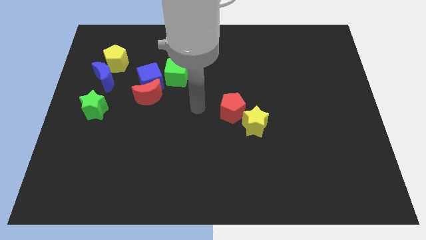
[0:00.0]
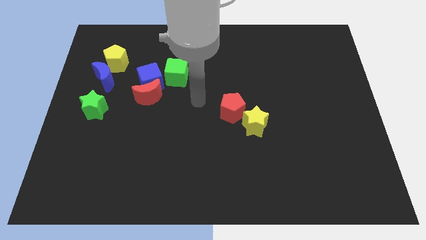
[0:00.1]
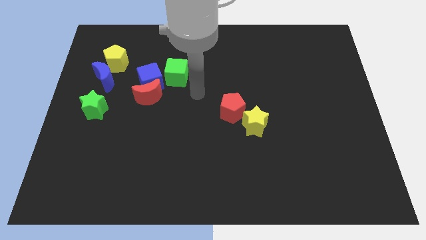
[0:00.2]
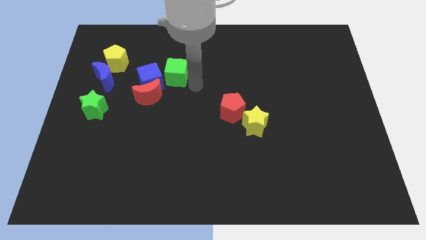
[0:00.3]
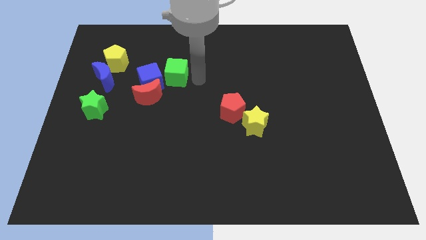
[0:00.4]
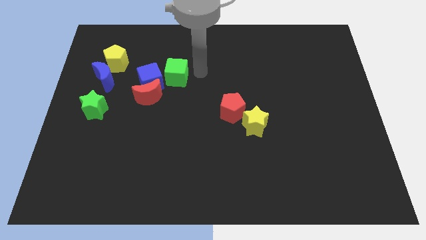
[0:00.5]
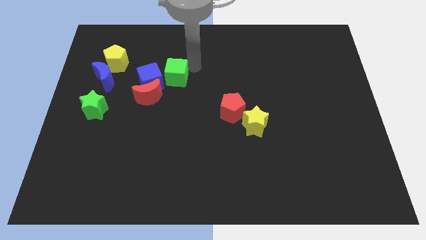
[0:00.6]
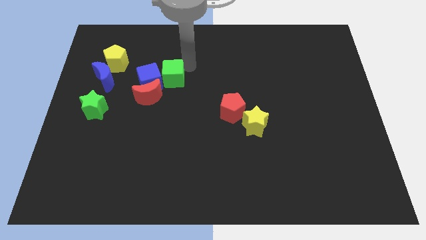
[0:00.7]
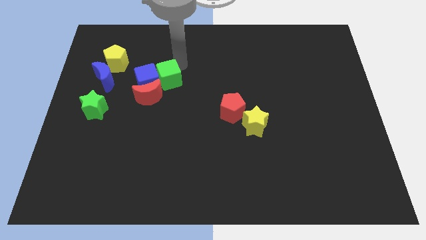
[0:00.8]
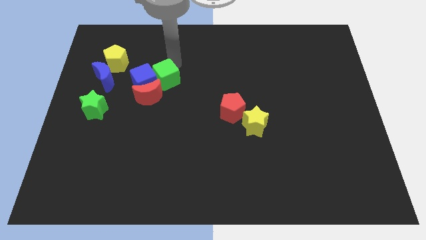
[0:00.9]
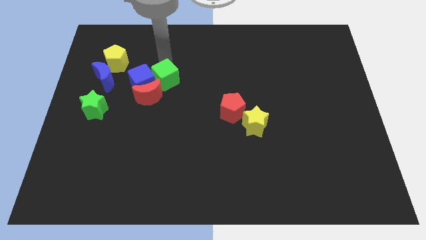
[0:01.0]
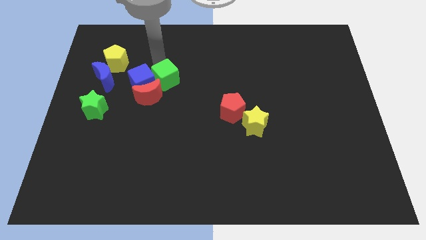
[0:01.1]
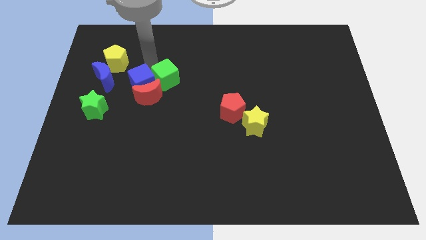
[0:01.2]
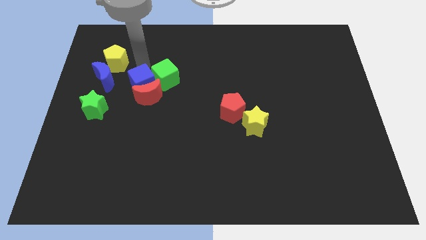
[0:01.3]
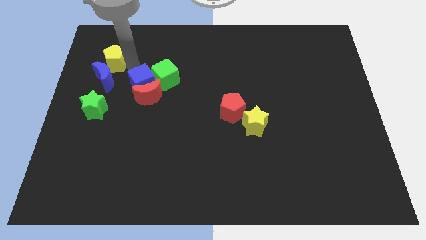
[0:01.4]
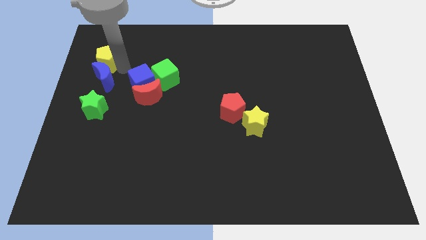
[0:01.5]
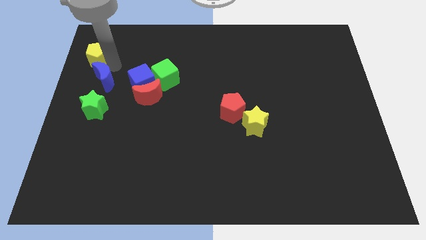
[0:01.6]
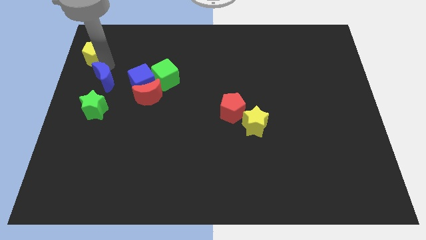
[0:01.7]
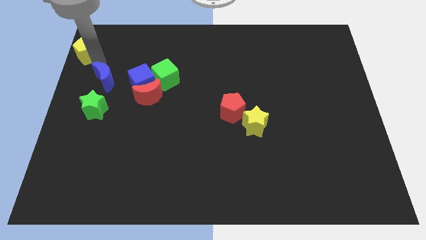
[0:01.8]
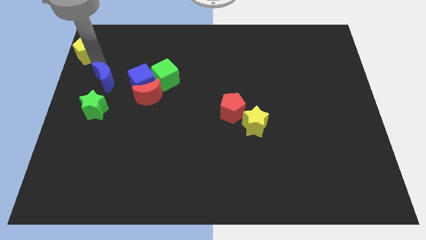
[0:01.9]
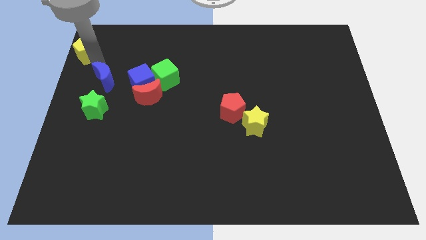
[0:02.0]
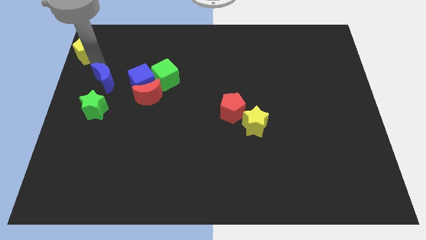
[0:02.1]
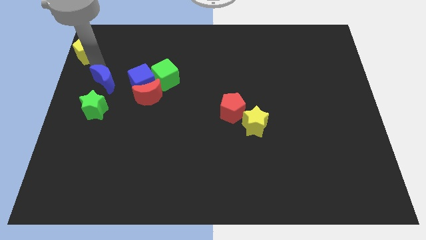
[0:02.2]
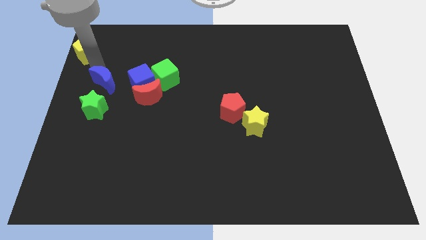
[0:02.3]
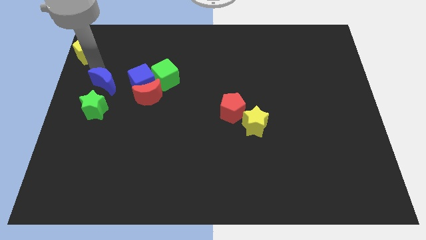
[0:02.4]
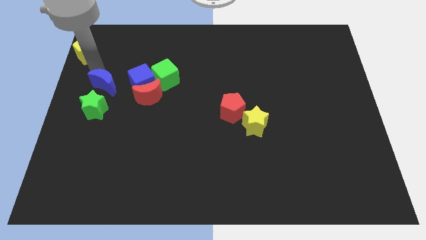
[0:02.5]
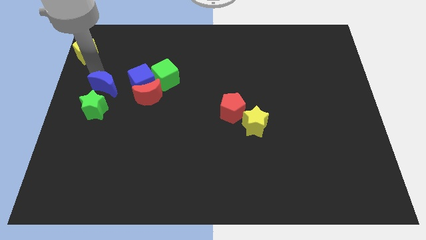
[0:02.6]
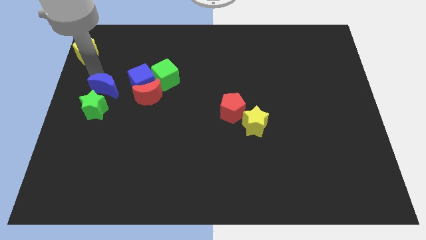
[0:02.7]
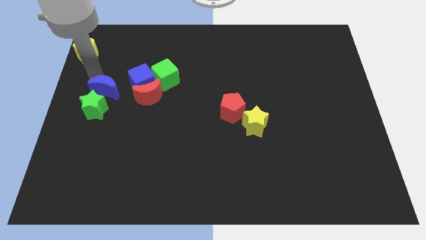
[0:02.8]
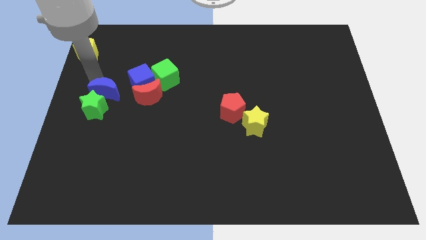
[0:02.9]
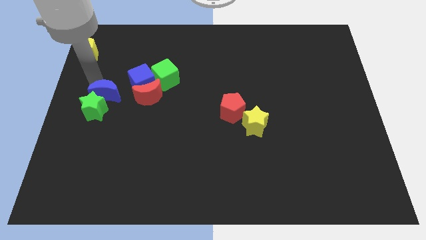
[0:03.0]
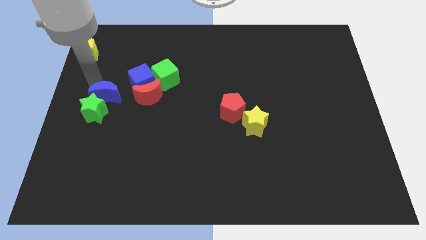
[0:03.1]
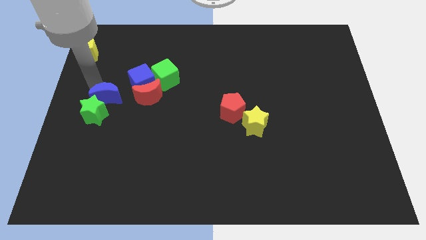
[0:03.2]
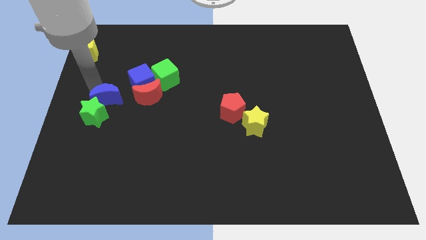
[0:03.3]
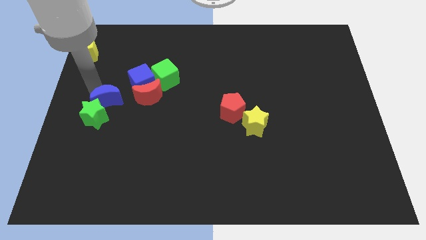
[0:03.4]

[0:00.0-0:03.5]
push the blue moon somewhat down

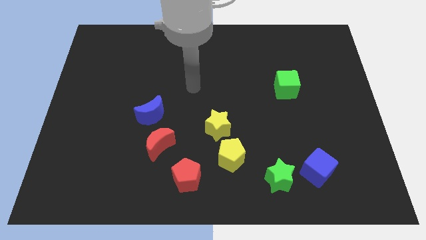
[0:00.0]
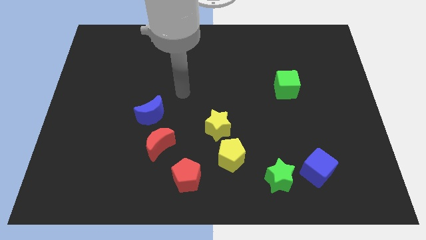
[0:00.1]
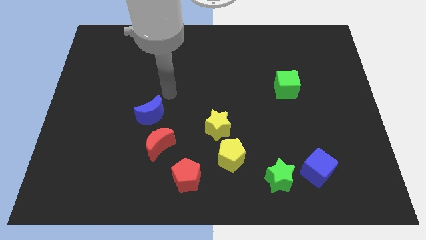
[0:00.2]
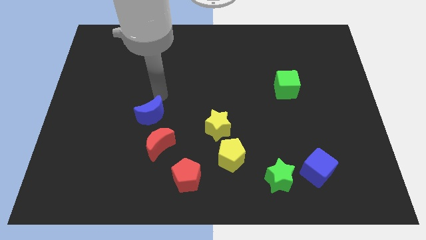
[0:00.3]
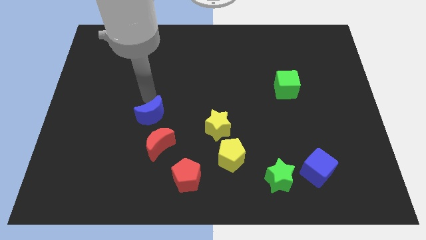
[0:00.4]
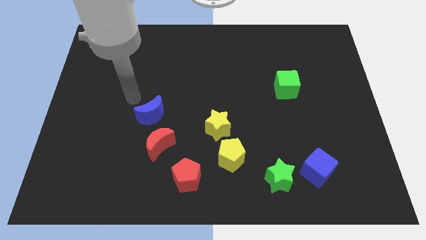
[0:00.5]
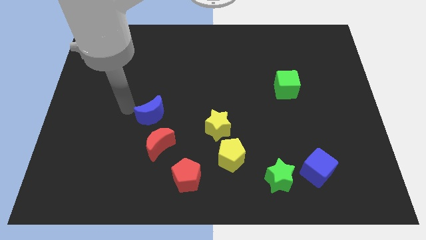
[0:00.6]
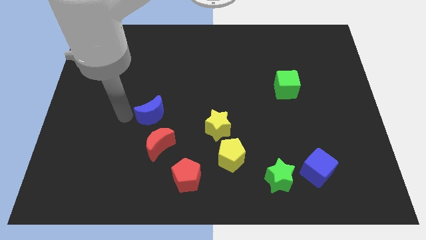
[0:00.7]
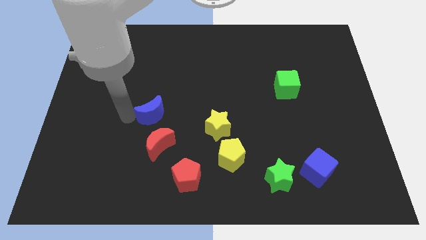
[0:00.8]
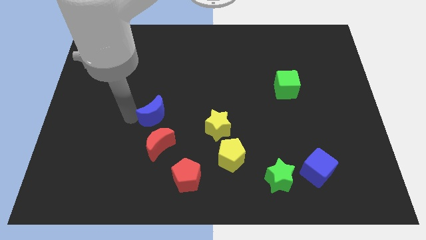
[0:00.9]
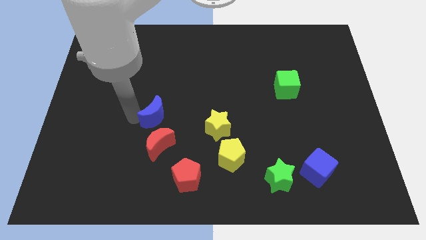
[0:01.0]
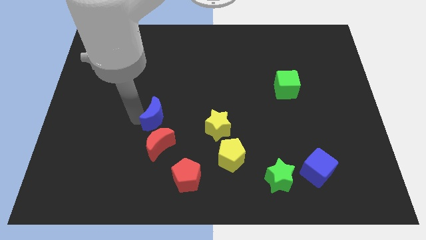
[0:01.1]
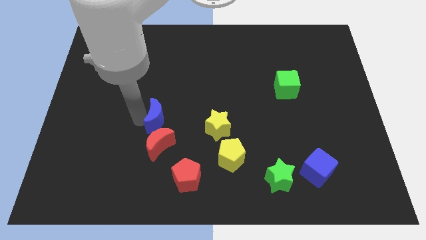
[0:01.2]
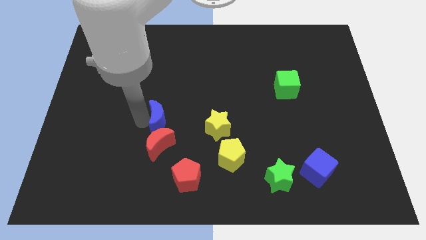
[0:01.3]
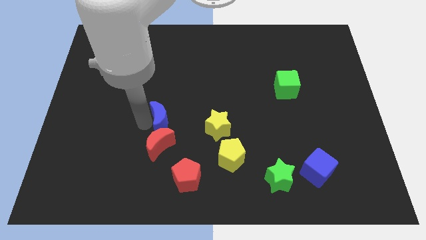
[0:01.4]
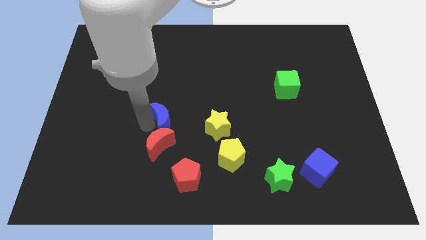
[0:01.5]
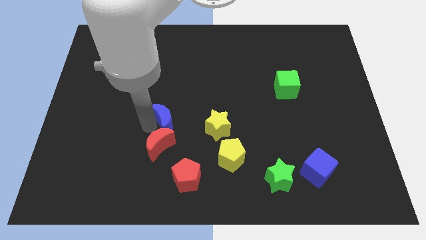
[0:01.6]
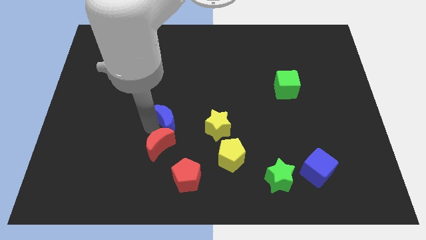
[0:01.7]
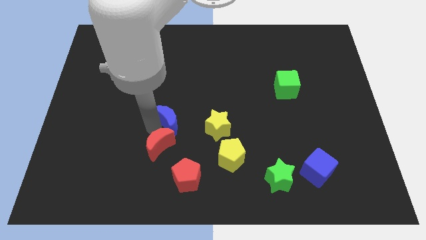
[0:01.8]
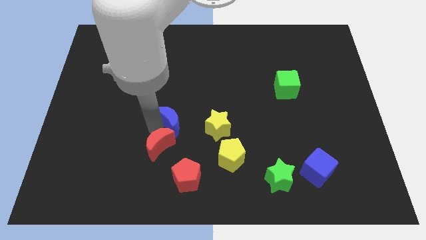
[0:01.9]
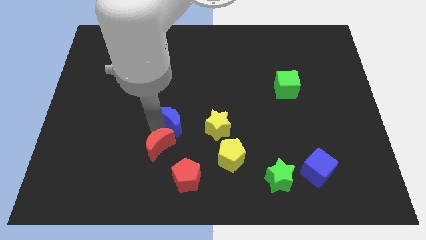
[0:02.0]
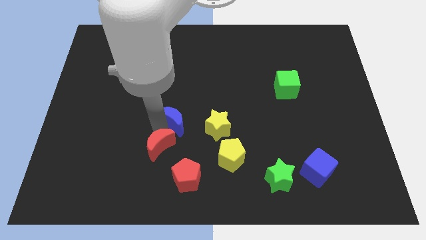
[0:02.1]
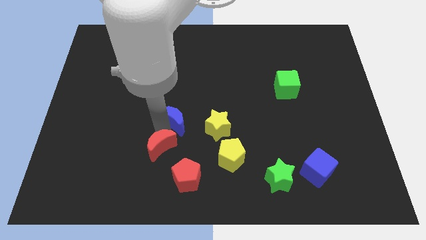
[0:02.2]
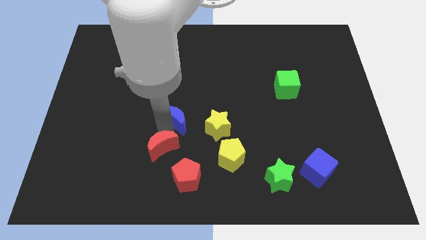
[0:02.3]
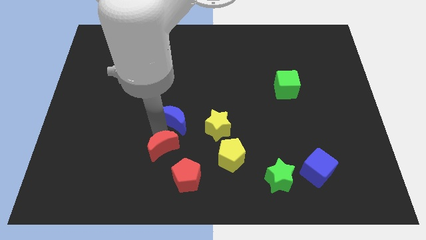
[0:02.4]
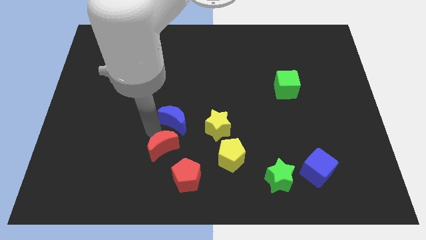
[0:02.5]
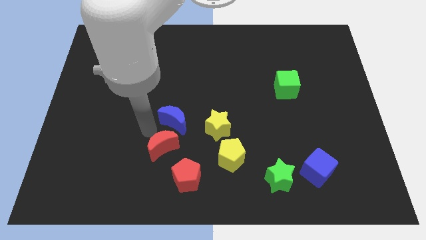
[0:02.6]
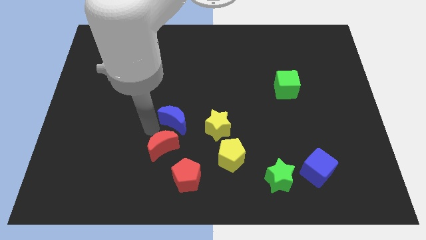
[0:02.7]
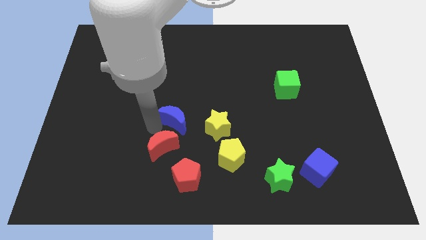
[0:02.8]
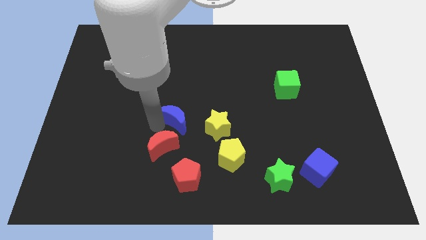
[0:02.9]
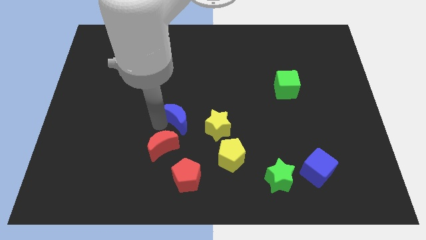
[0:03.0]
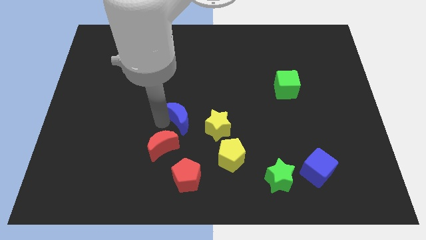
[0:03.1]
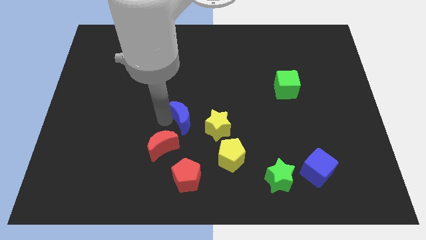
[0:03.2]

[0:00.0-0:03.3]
push the blue moon to the right a little

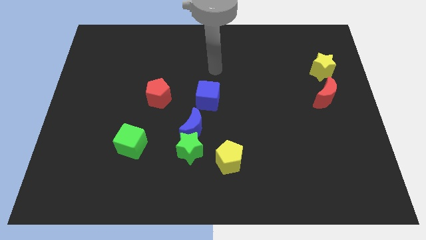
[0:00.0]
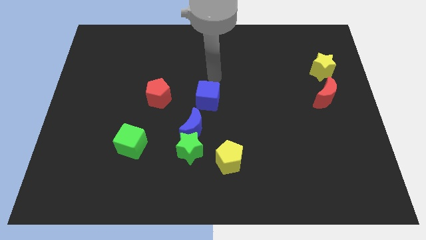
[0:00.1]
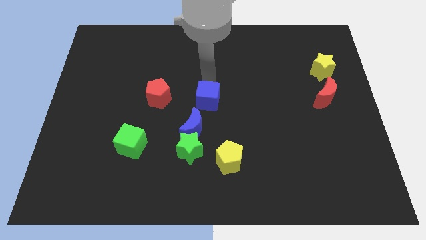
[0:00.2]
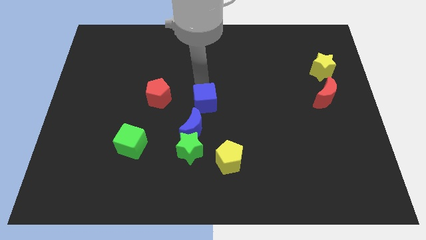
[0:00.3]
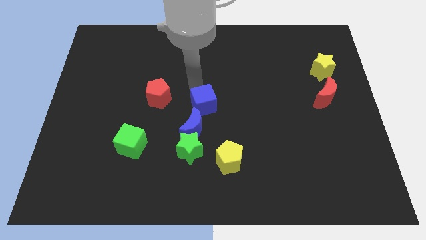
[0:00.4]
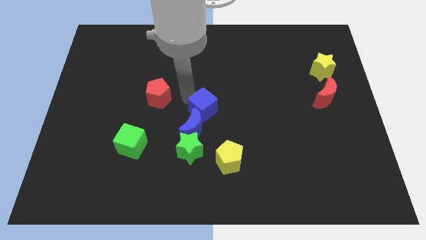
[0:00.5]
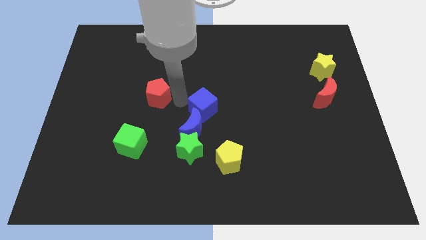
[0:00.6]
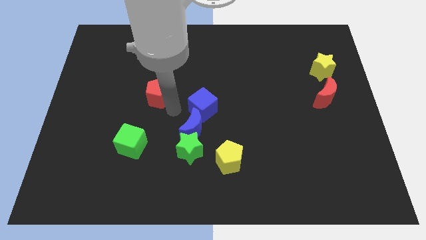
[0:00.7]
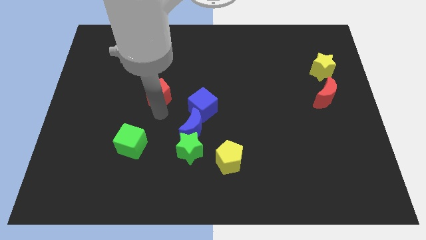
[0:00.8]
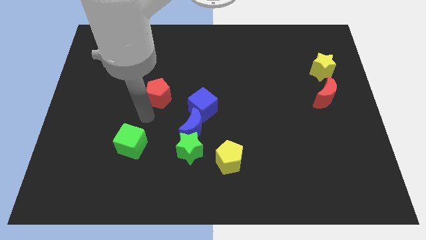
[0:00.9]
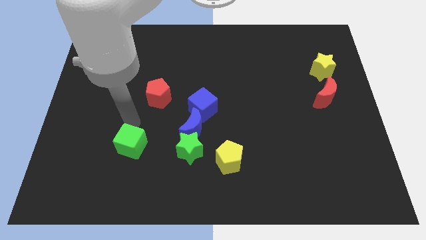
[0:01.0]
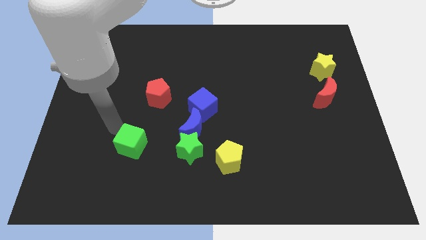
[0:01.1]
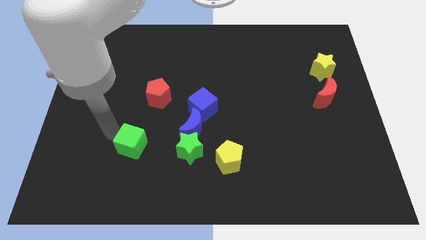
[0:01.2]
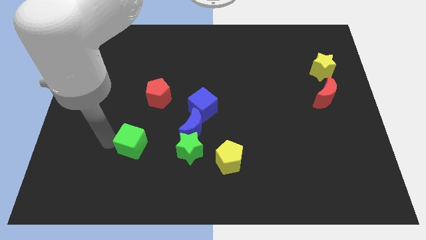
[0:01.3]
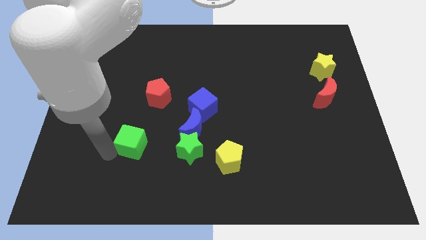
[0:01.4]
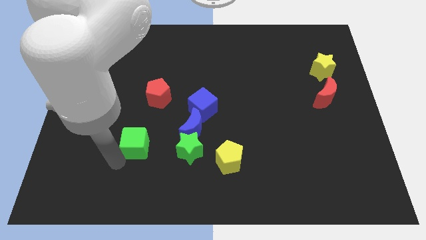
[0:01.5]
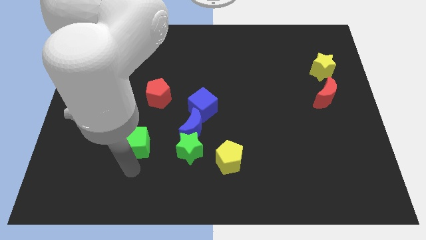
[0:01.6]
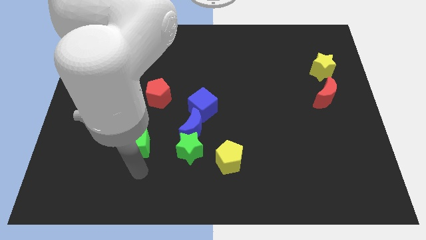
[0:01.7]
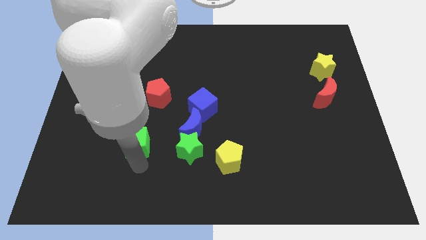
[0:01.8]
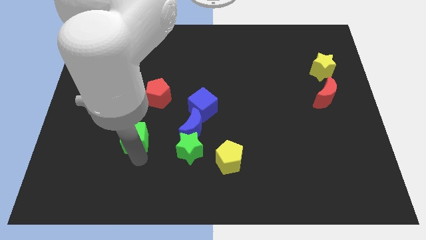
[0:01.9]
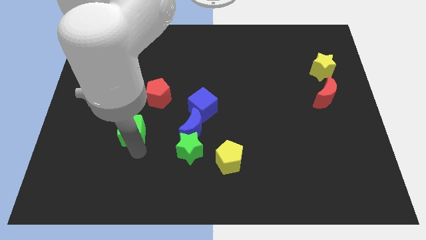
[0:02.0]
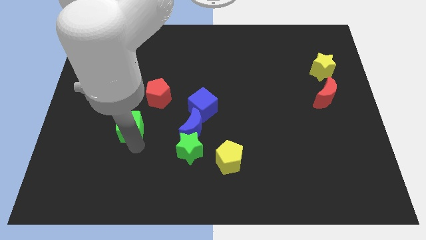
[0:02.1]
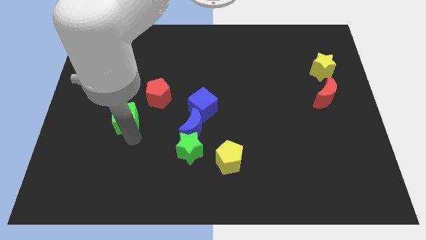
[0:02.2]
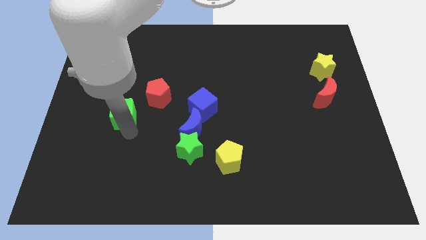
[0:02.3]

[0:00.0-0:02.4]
slightly move the green cube upwards
